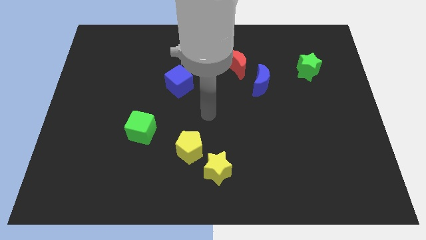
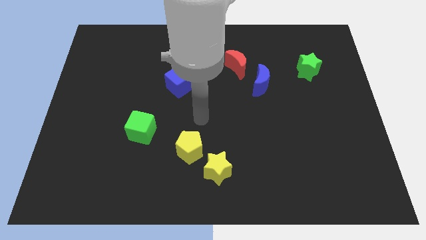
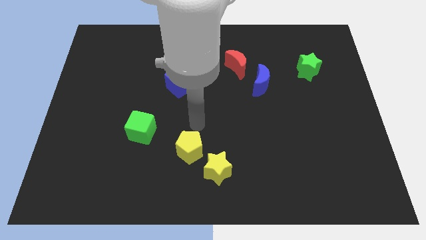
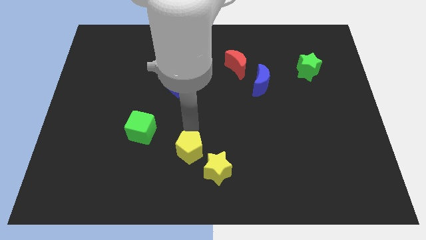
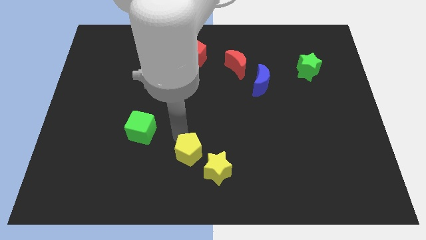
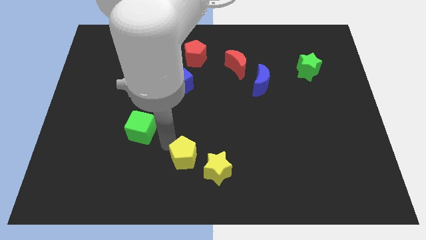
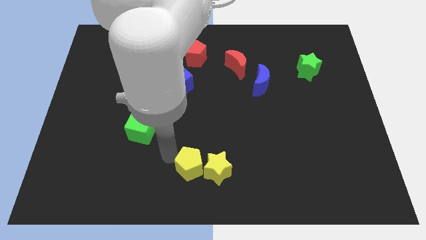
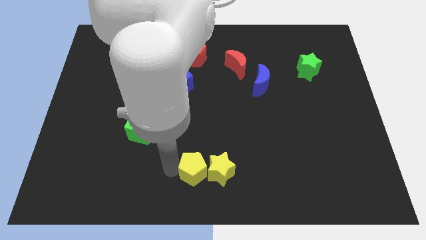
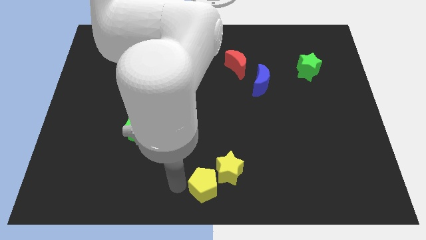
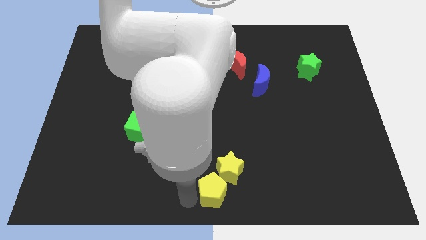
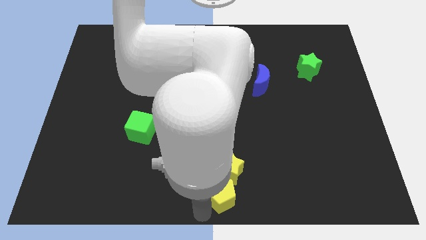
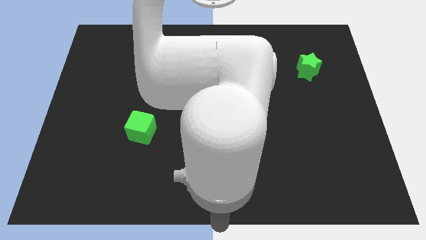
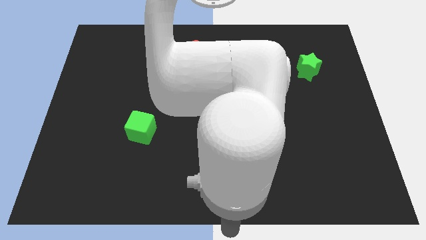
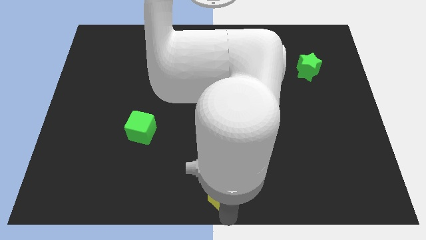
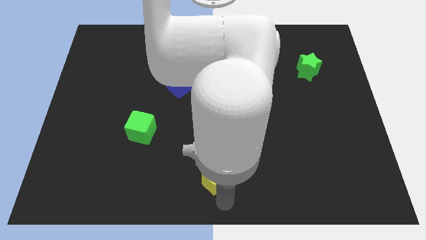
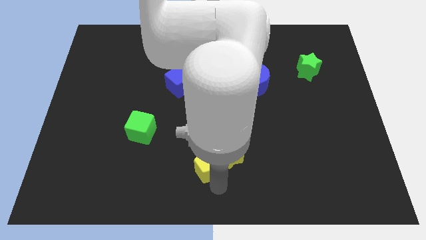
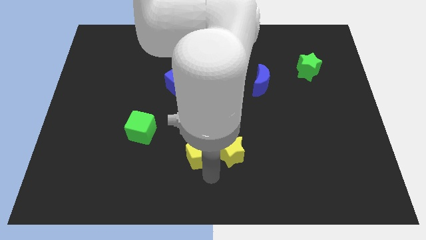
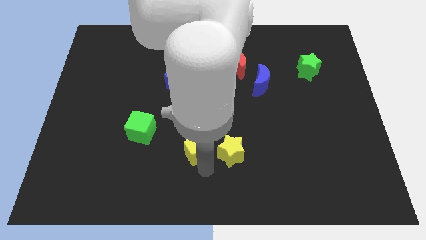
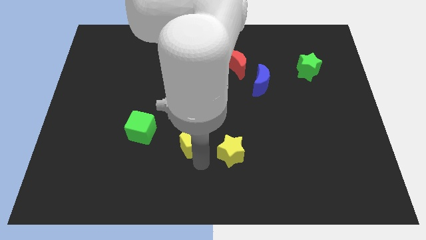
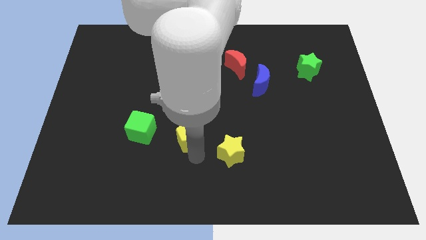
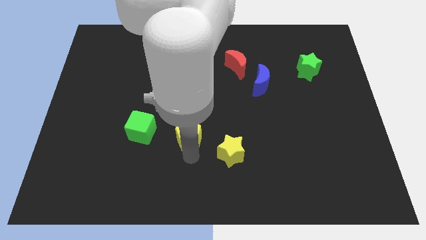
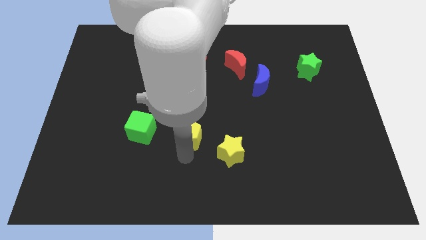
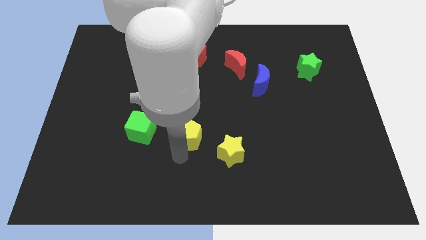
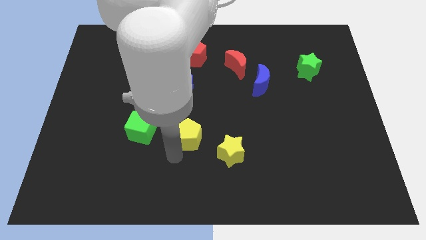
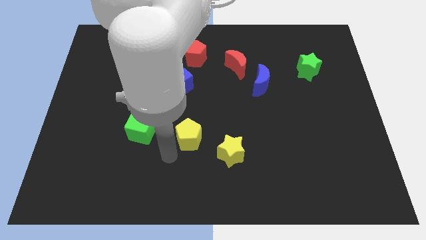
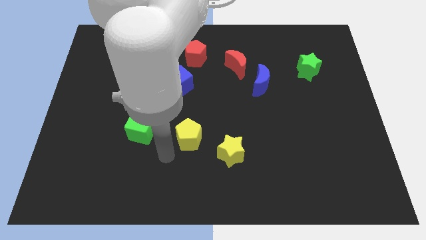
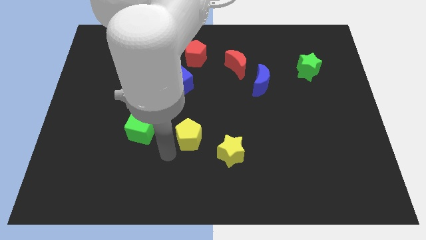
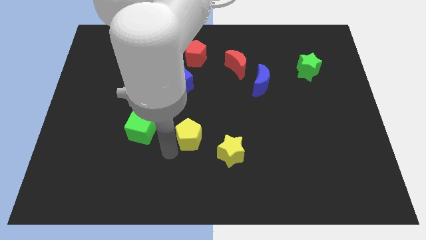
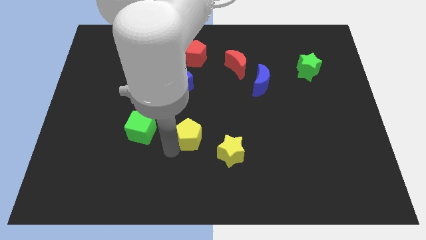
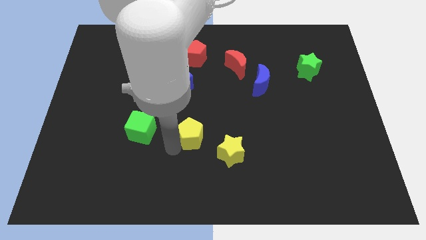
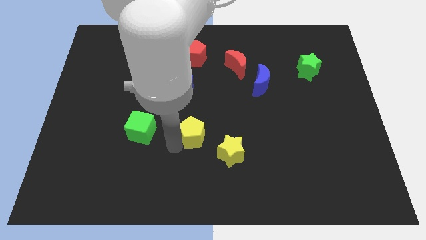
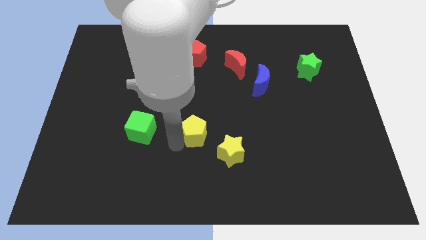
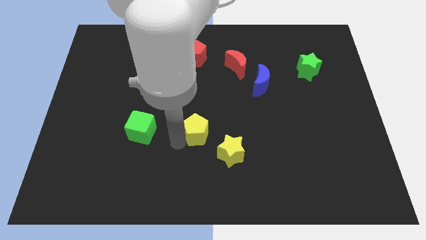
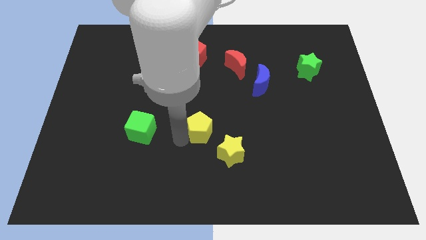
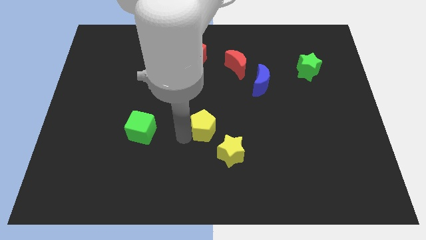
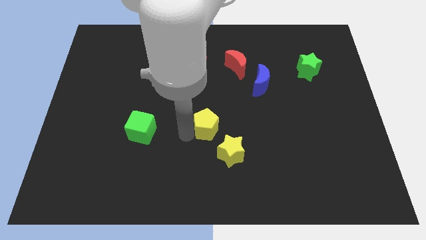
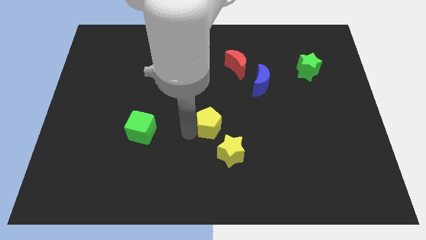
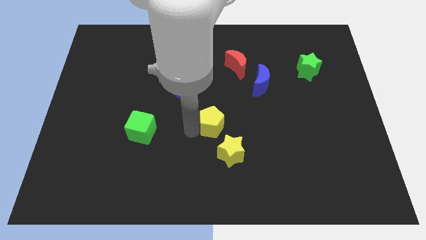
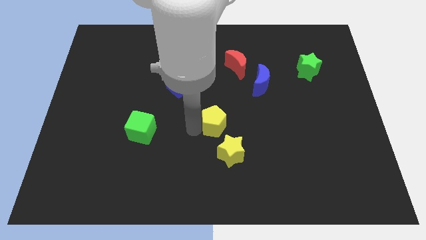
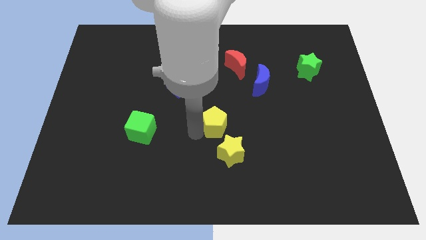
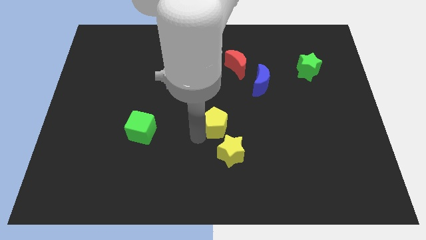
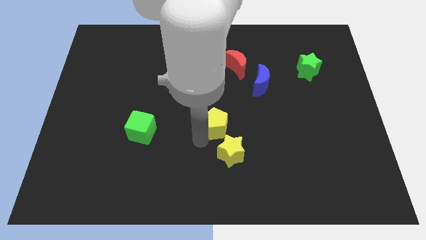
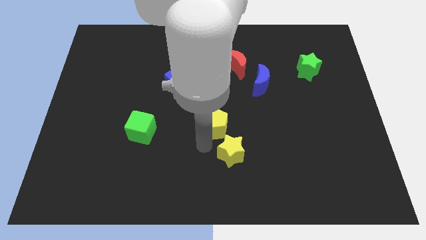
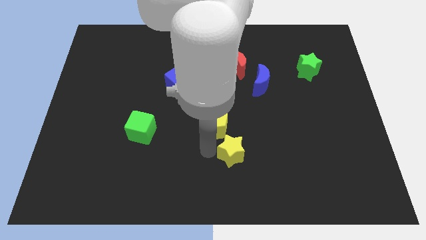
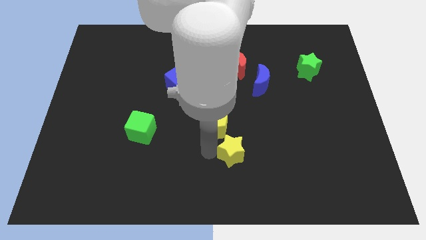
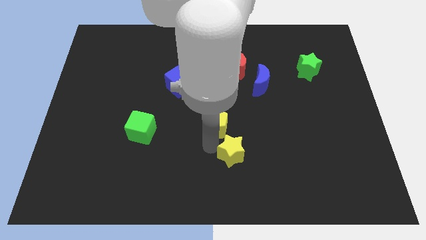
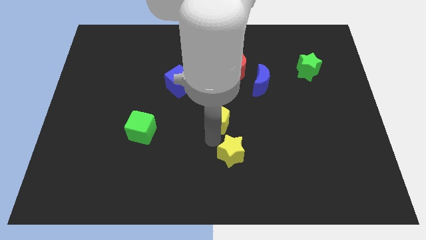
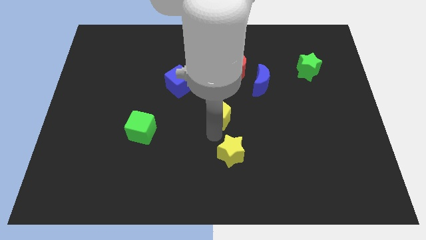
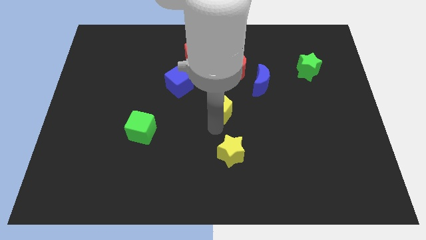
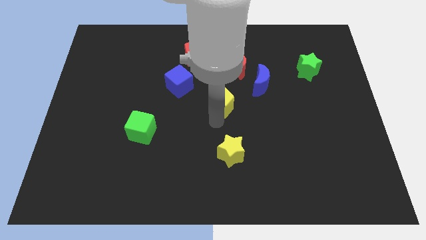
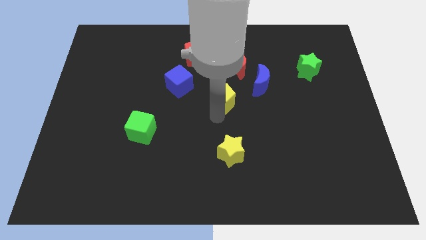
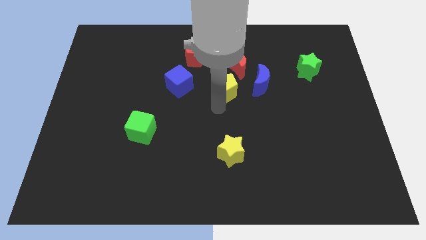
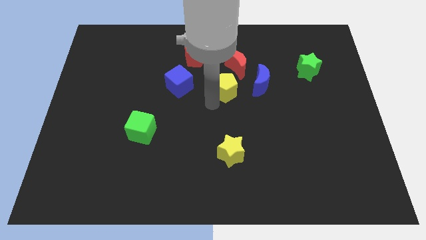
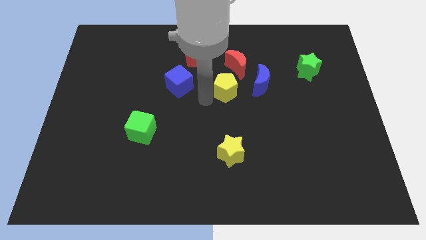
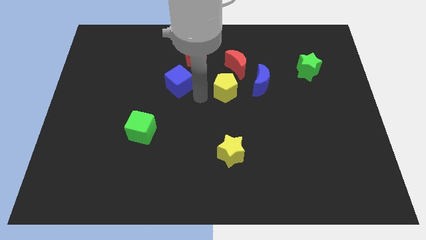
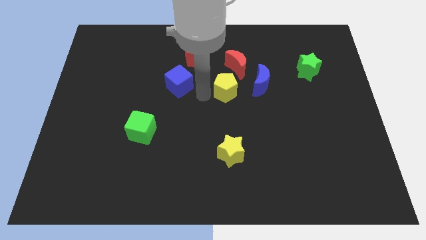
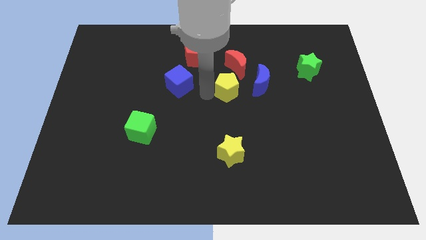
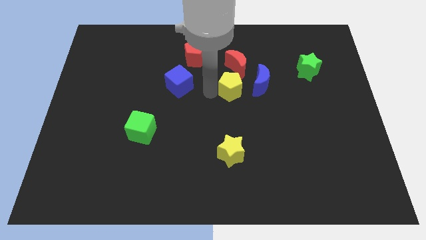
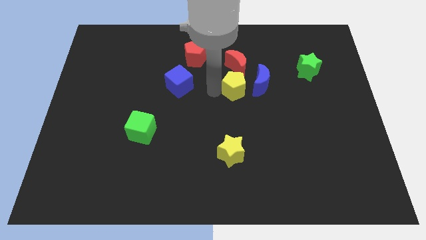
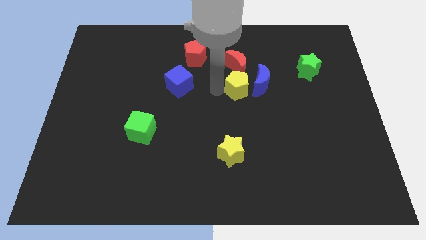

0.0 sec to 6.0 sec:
put the yellow pentagon next to the blue moon

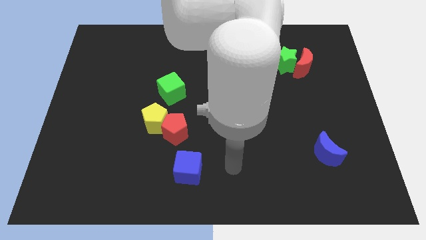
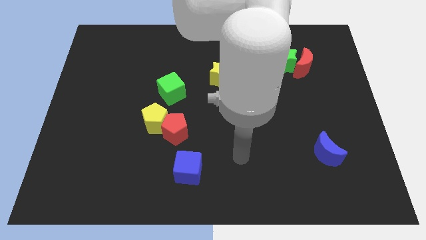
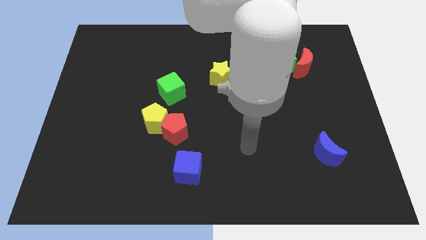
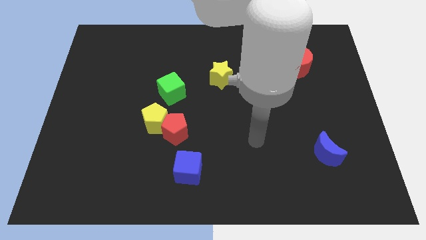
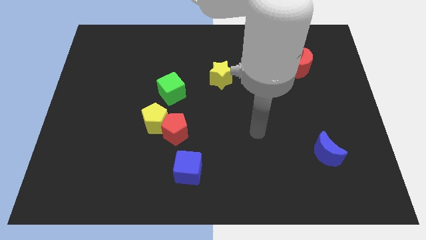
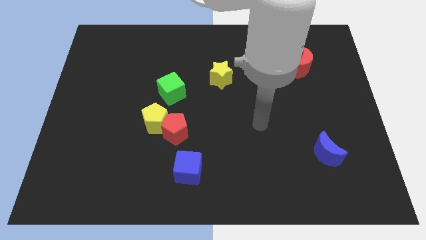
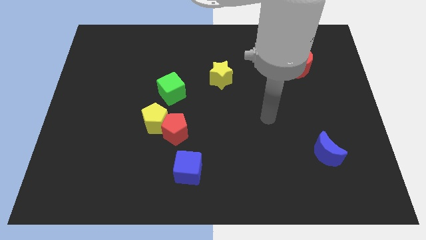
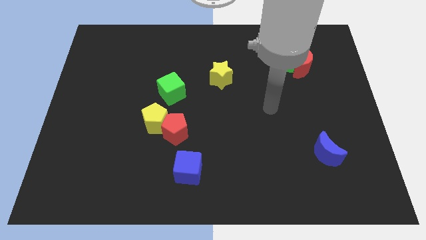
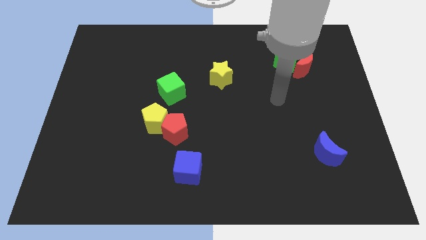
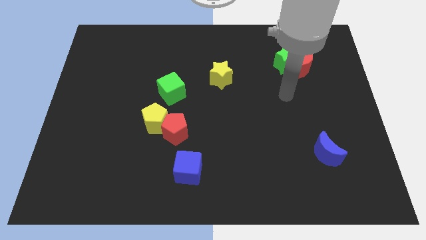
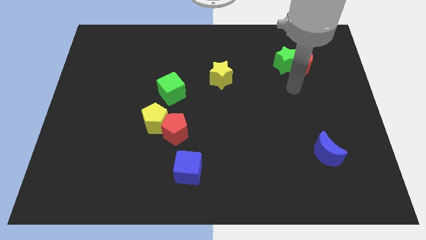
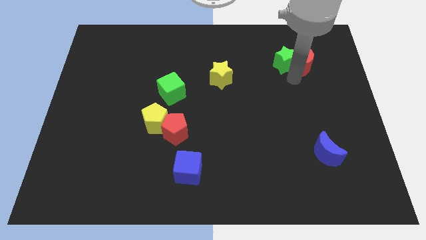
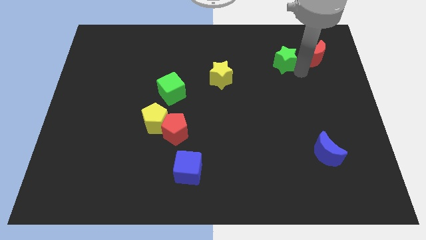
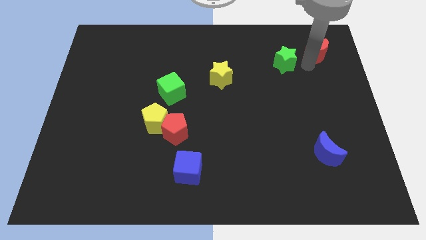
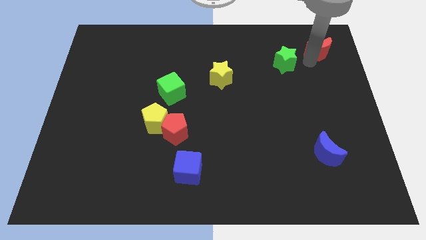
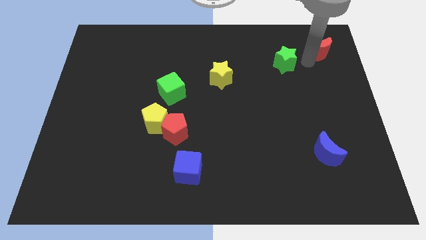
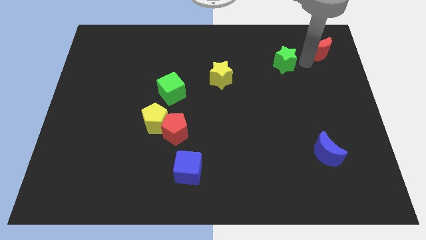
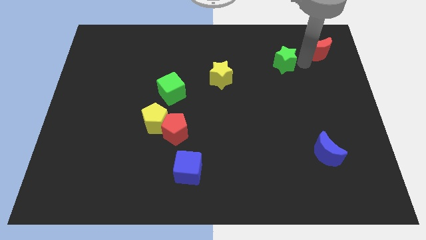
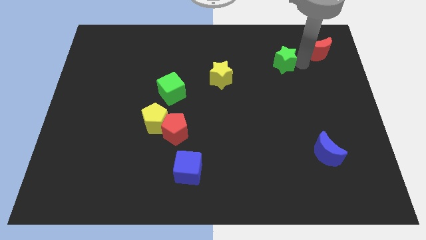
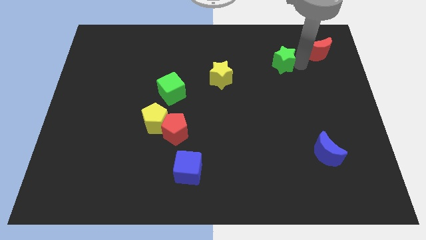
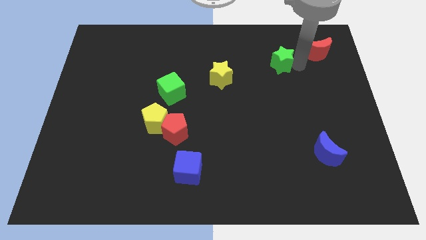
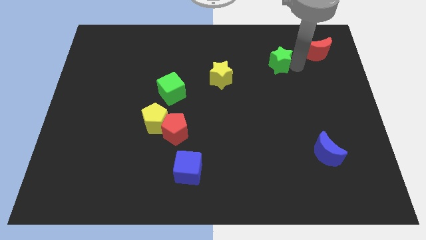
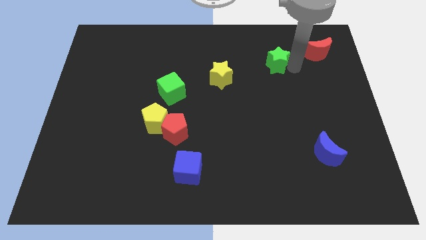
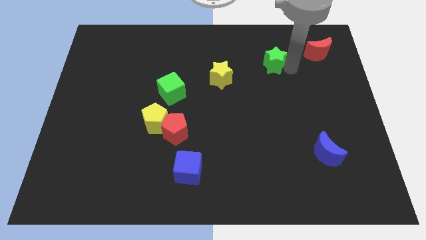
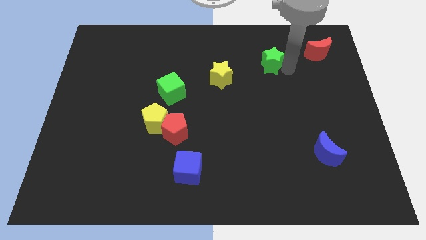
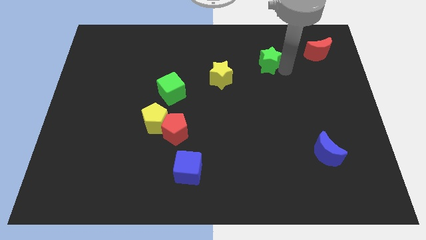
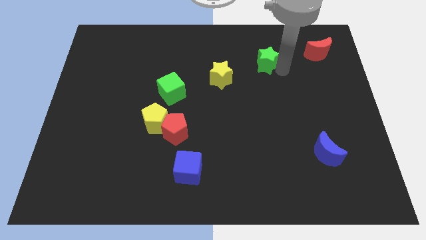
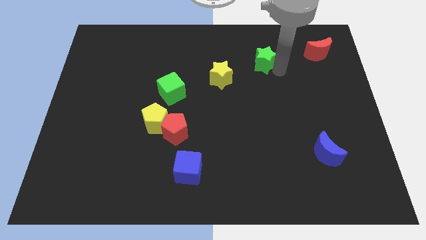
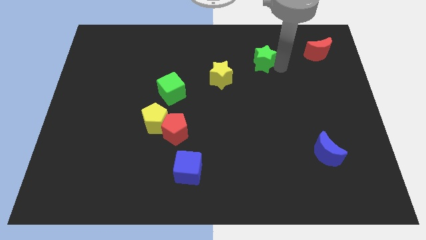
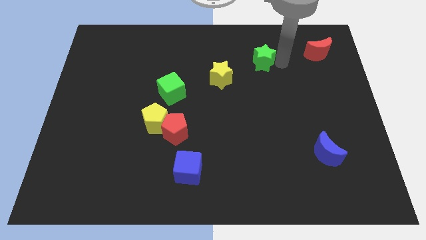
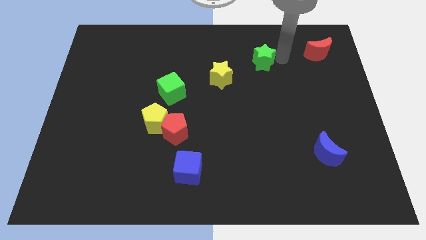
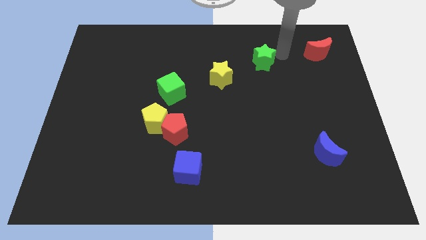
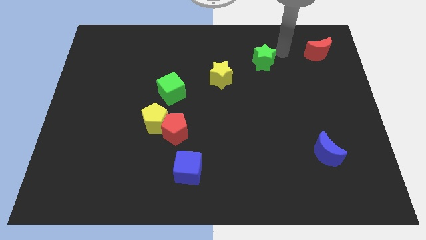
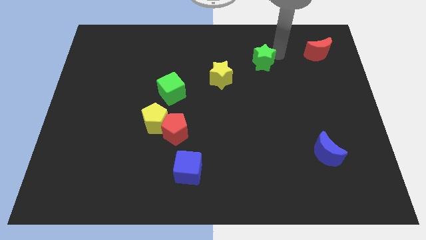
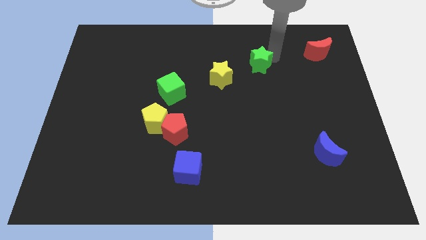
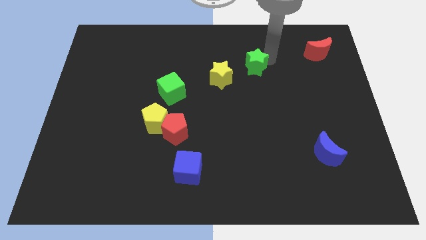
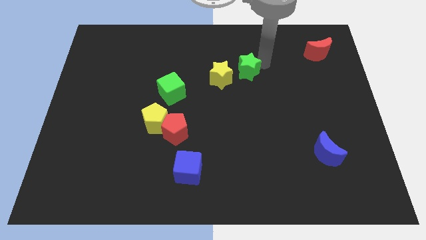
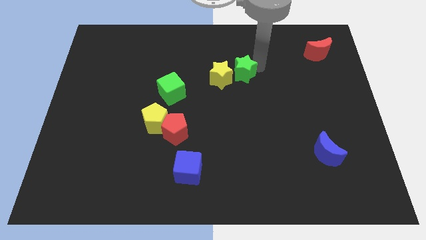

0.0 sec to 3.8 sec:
slide the green star close to the yellow star
